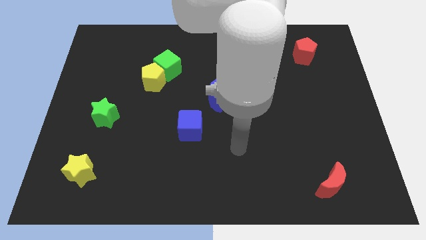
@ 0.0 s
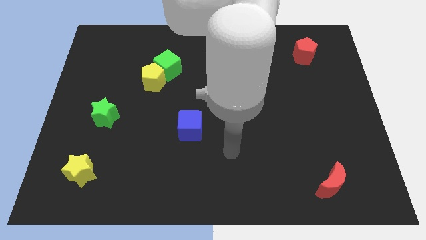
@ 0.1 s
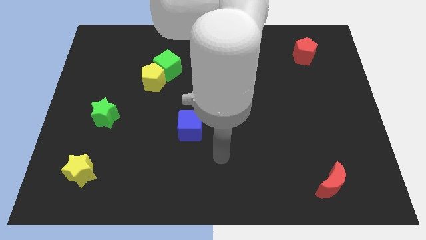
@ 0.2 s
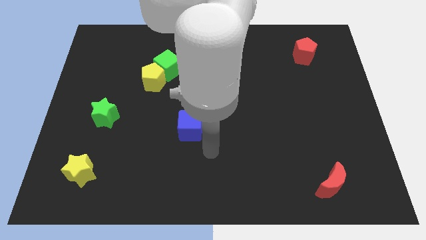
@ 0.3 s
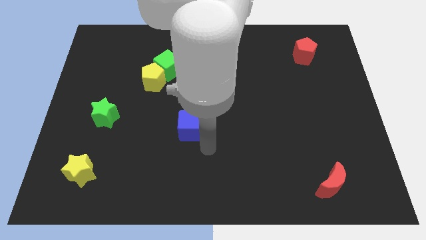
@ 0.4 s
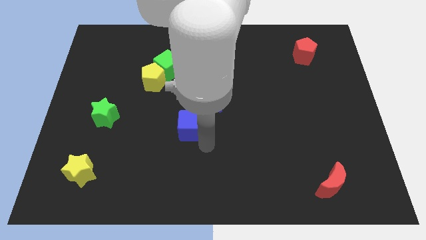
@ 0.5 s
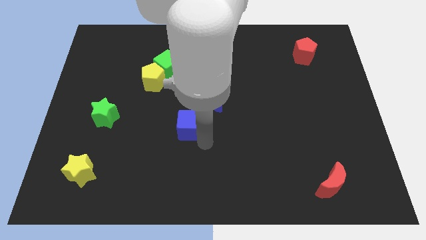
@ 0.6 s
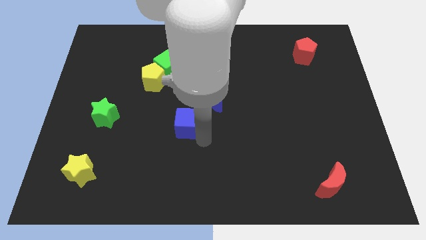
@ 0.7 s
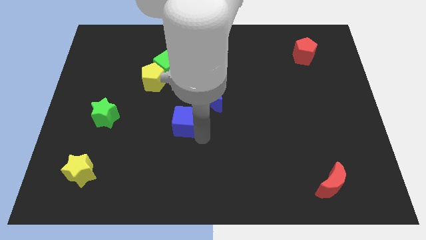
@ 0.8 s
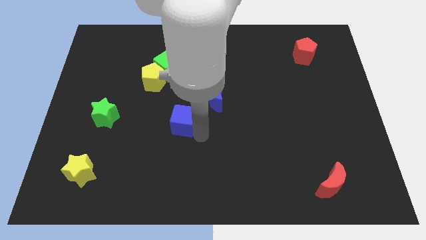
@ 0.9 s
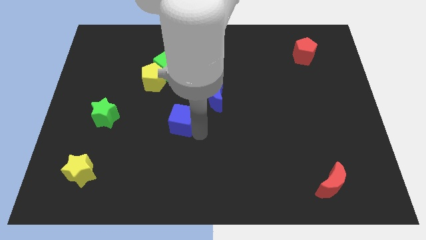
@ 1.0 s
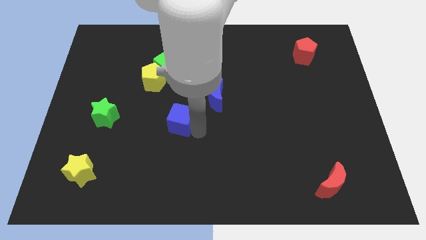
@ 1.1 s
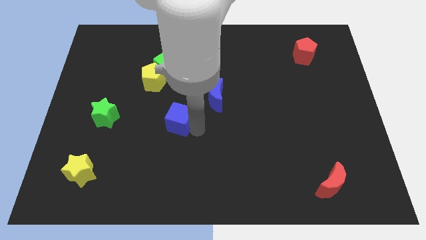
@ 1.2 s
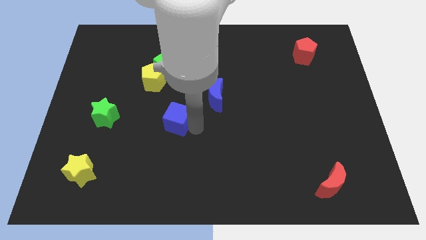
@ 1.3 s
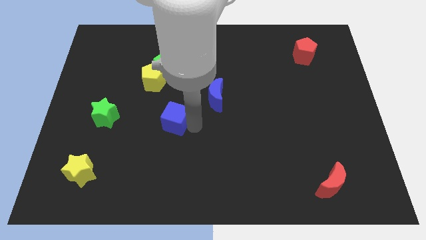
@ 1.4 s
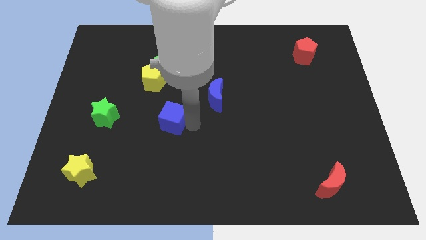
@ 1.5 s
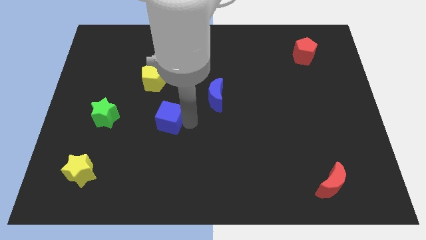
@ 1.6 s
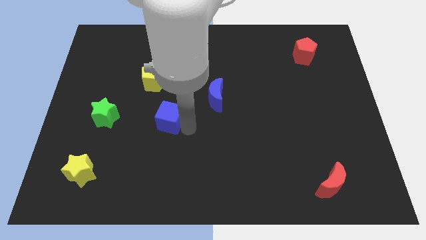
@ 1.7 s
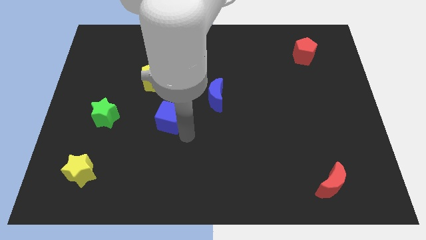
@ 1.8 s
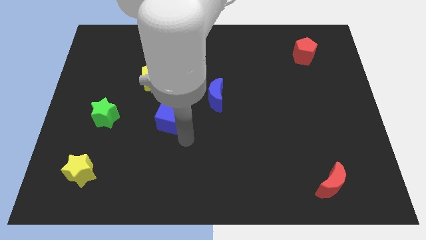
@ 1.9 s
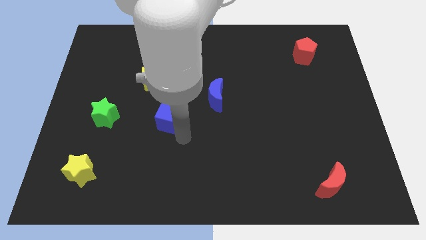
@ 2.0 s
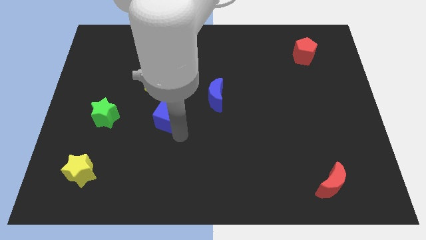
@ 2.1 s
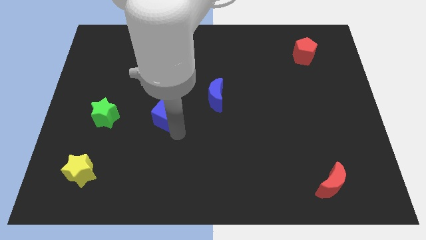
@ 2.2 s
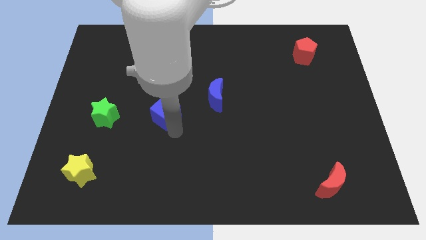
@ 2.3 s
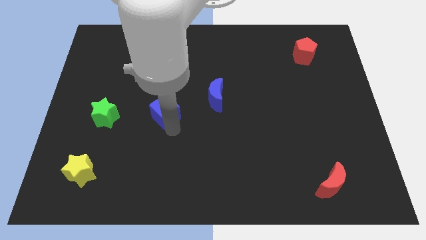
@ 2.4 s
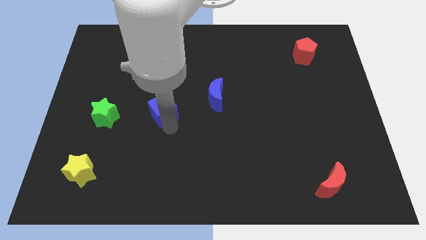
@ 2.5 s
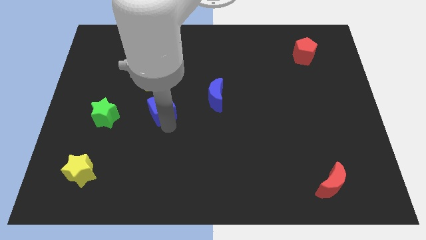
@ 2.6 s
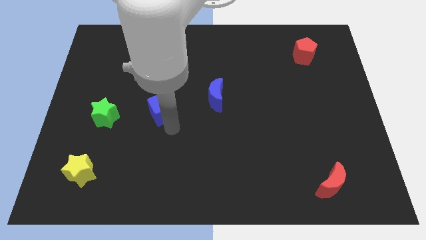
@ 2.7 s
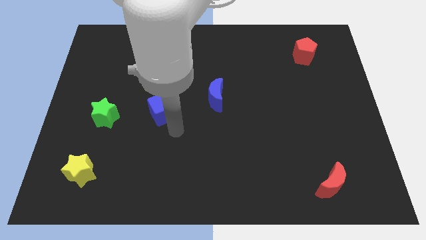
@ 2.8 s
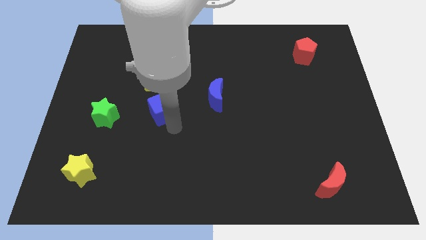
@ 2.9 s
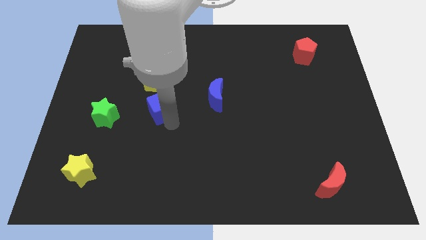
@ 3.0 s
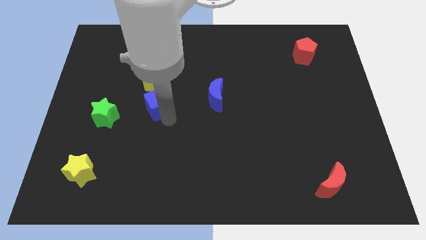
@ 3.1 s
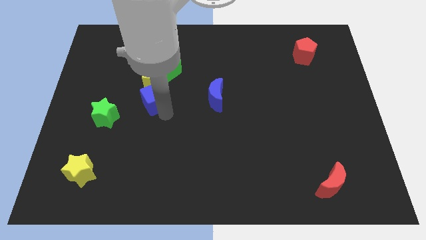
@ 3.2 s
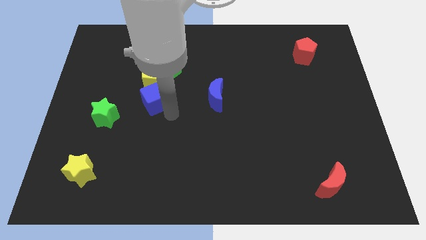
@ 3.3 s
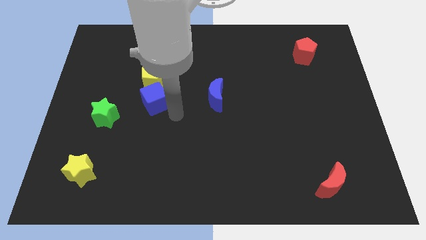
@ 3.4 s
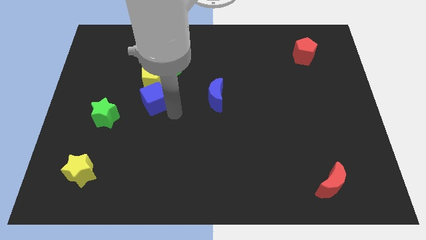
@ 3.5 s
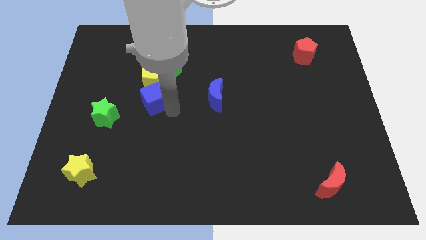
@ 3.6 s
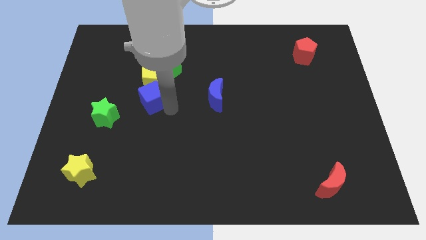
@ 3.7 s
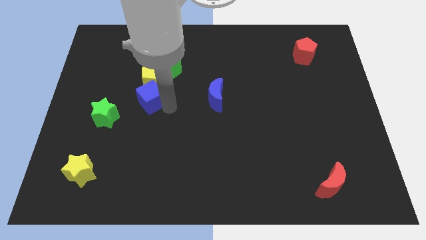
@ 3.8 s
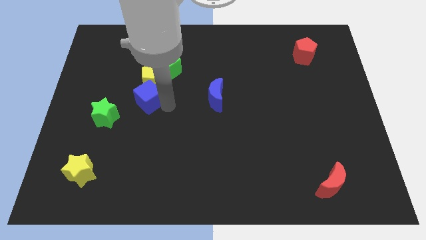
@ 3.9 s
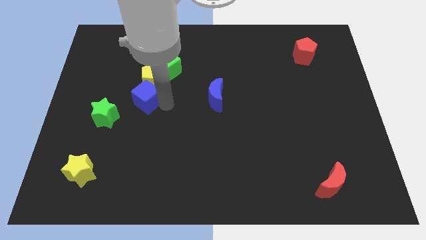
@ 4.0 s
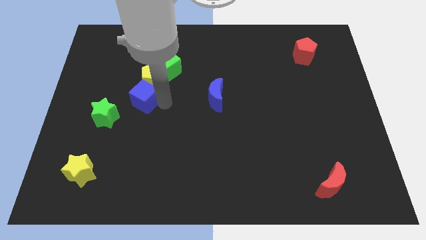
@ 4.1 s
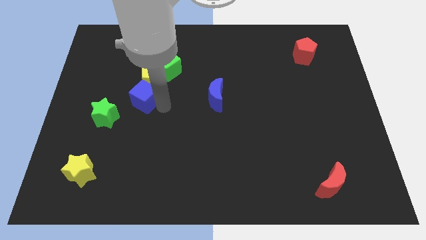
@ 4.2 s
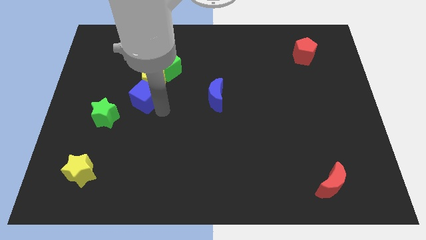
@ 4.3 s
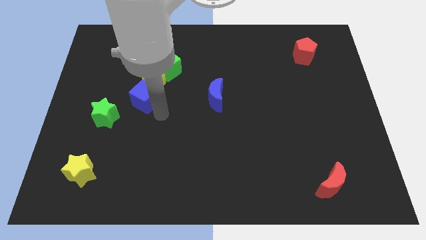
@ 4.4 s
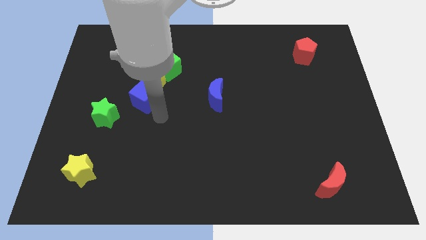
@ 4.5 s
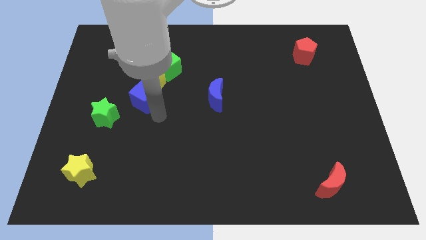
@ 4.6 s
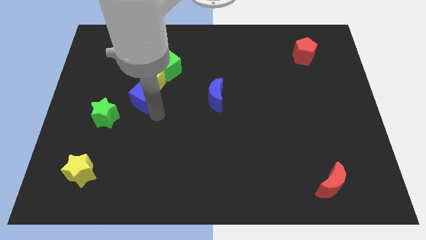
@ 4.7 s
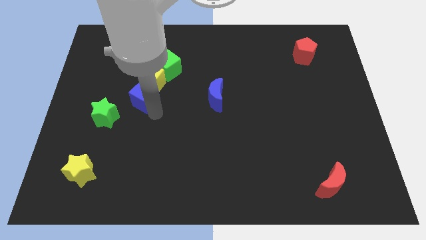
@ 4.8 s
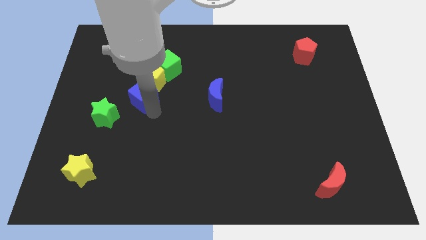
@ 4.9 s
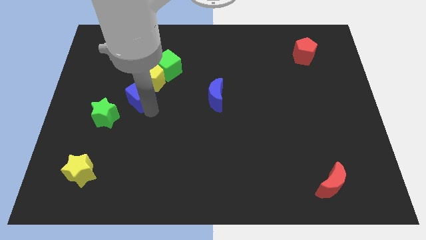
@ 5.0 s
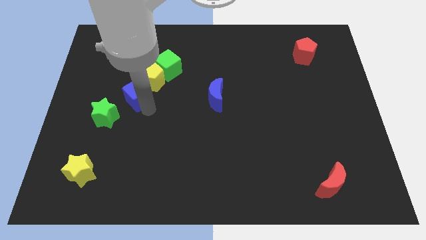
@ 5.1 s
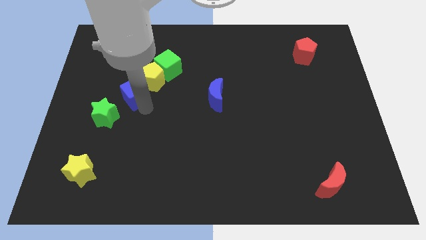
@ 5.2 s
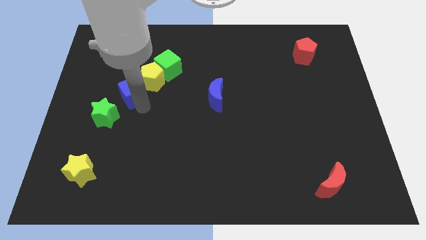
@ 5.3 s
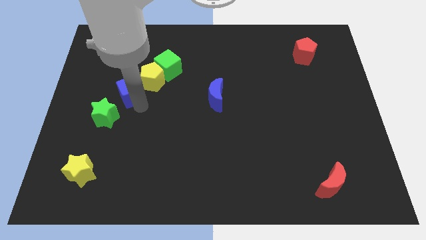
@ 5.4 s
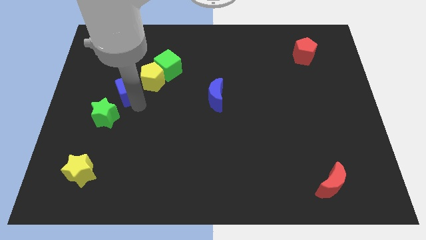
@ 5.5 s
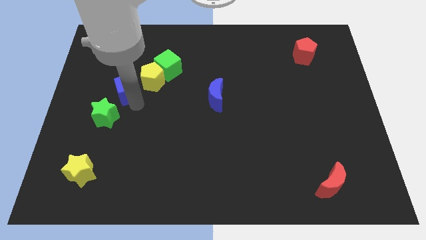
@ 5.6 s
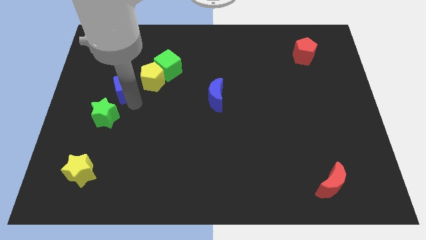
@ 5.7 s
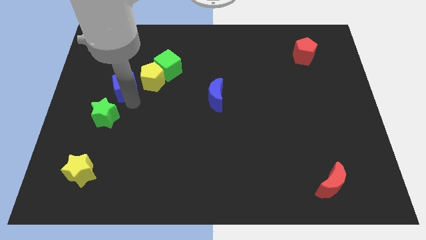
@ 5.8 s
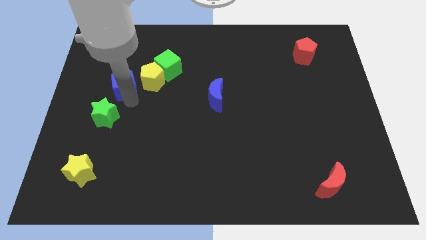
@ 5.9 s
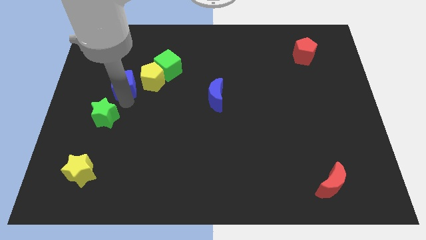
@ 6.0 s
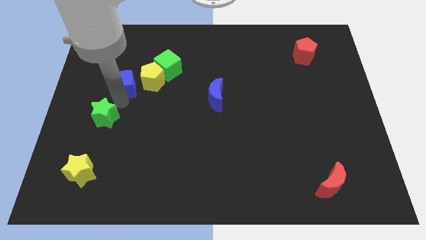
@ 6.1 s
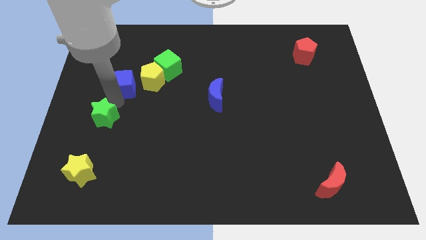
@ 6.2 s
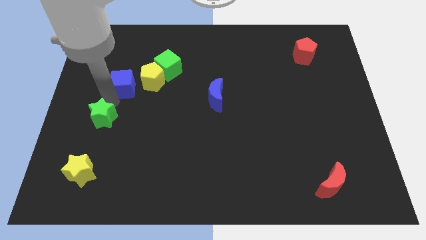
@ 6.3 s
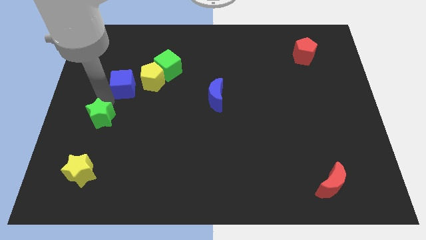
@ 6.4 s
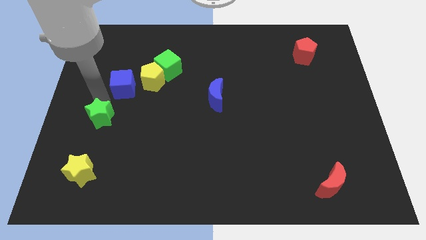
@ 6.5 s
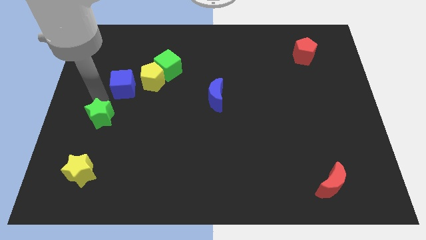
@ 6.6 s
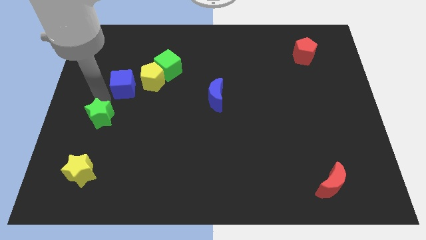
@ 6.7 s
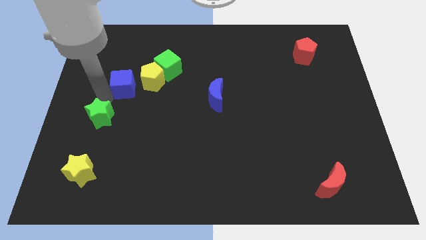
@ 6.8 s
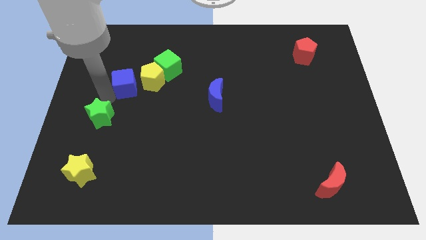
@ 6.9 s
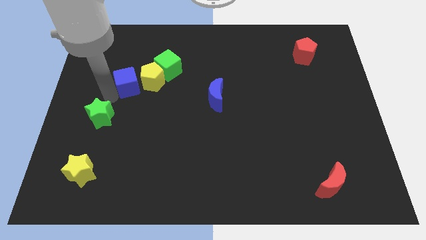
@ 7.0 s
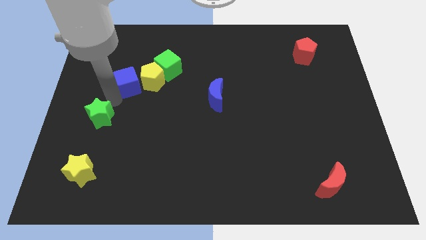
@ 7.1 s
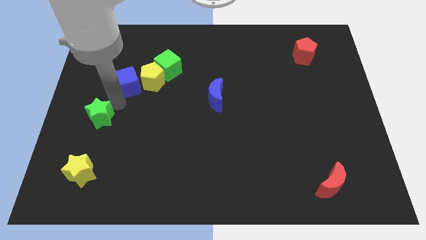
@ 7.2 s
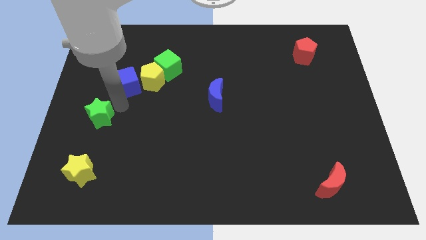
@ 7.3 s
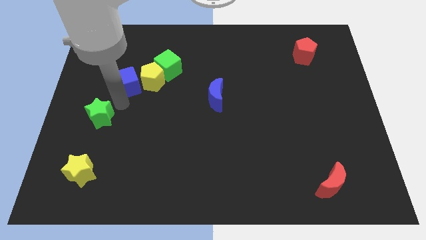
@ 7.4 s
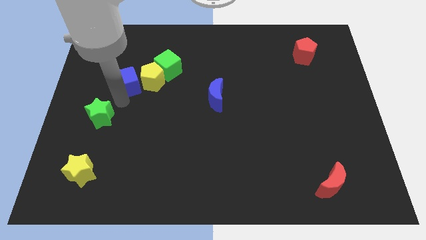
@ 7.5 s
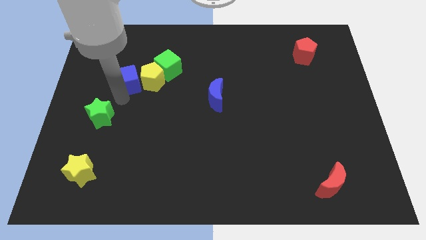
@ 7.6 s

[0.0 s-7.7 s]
move the blue cube to the top left side of the yellow pentagon
